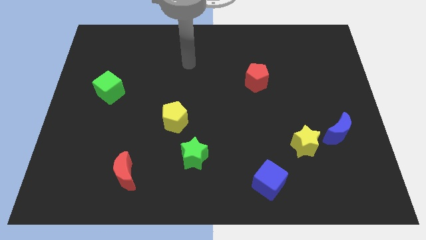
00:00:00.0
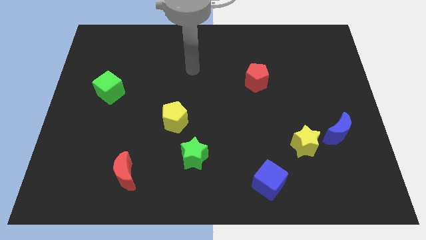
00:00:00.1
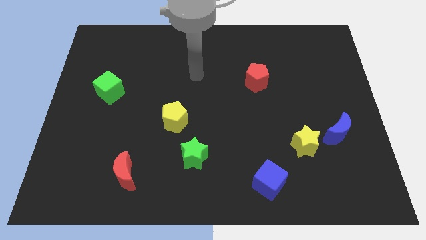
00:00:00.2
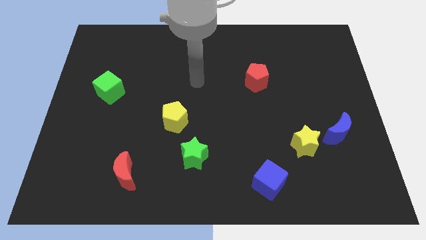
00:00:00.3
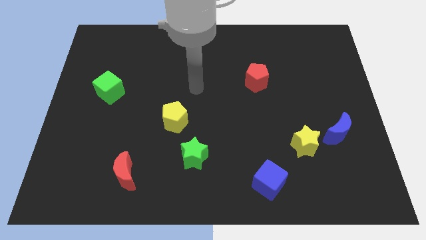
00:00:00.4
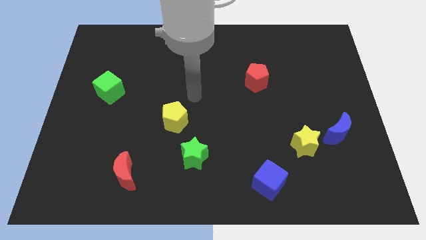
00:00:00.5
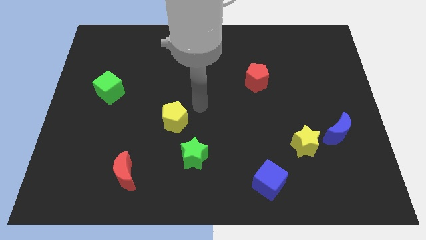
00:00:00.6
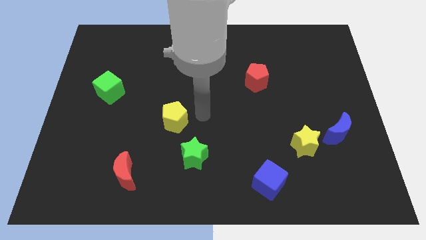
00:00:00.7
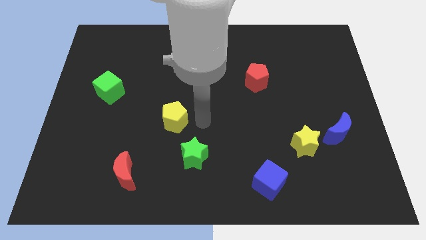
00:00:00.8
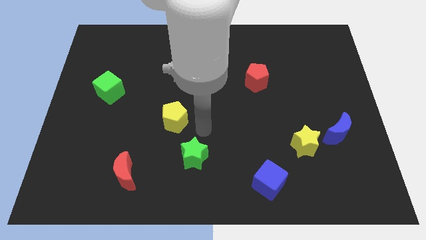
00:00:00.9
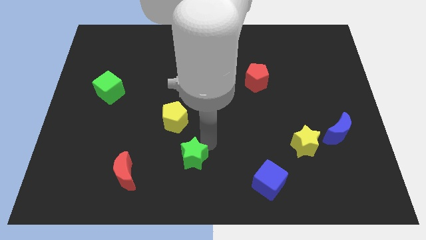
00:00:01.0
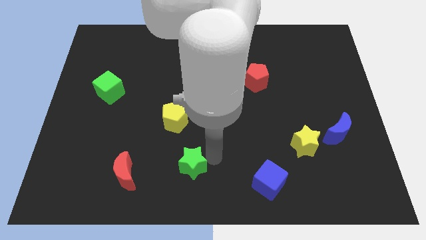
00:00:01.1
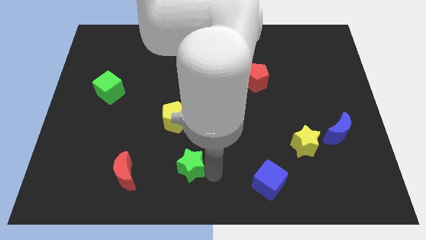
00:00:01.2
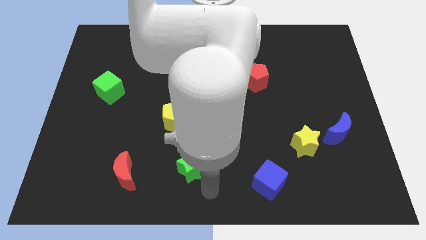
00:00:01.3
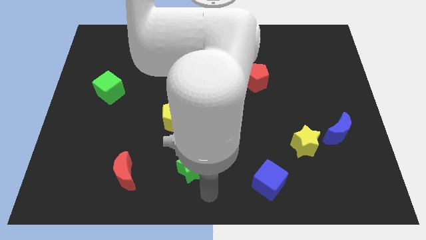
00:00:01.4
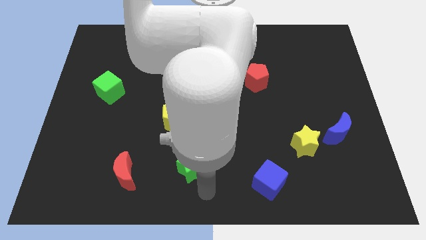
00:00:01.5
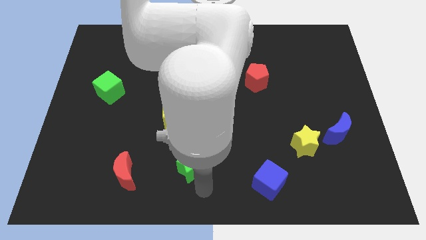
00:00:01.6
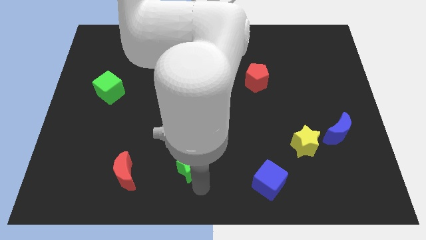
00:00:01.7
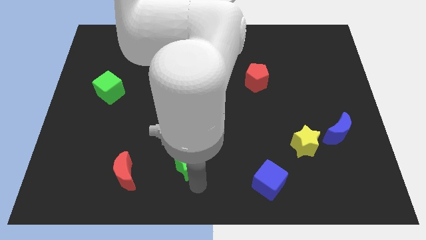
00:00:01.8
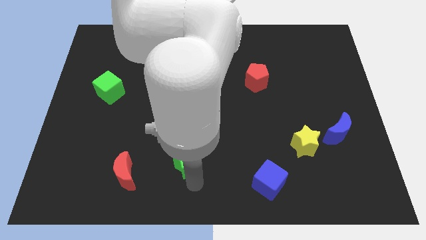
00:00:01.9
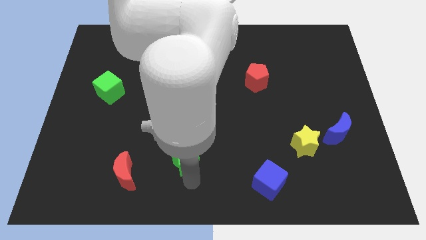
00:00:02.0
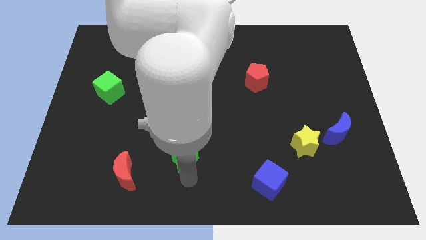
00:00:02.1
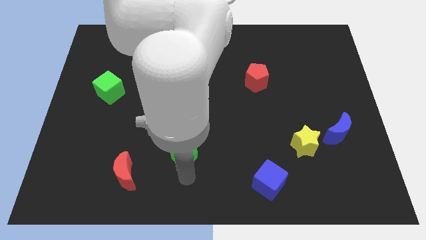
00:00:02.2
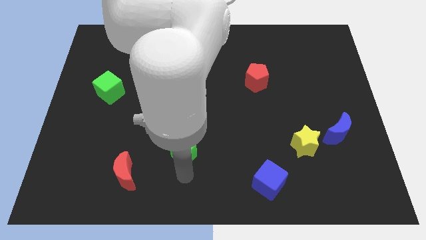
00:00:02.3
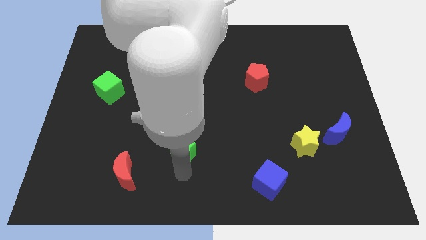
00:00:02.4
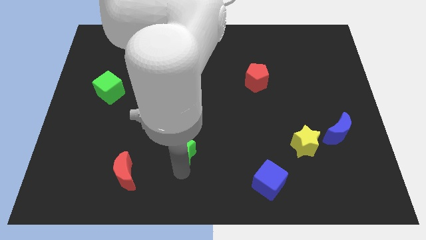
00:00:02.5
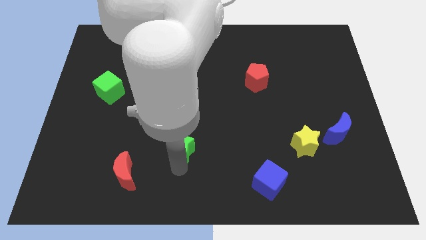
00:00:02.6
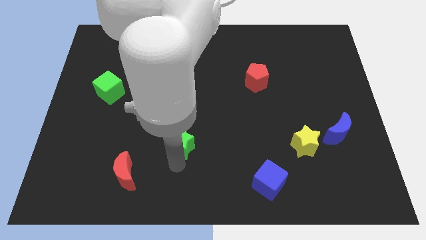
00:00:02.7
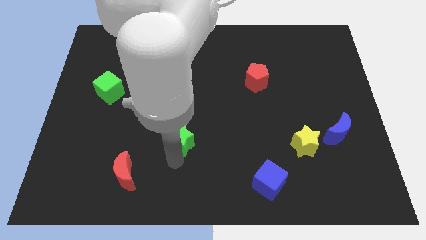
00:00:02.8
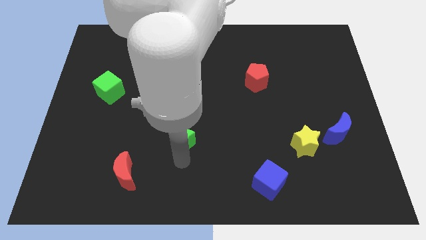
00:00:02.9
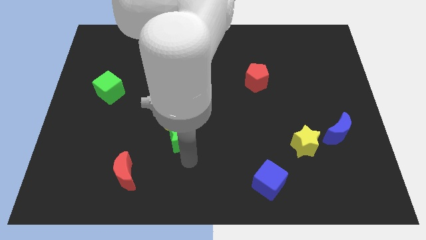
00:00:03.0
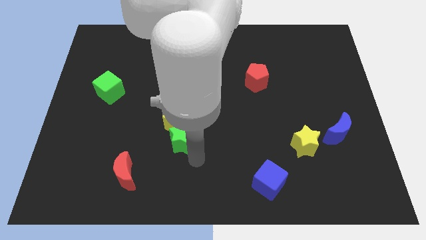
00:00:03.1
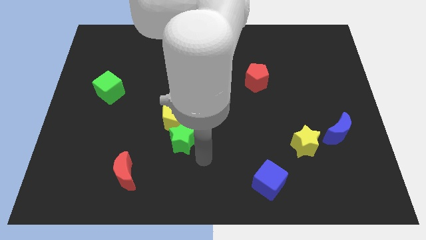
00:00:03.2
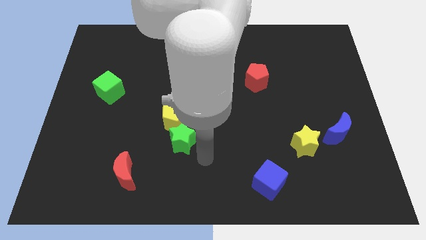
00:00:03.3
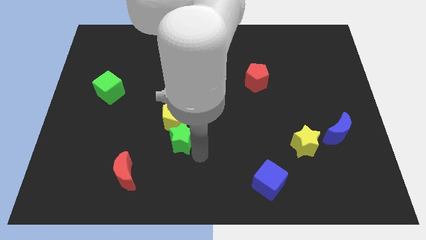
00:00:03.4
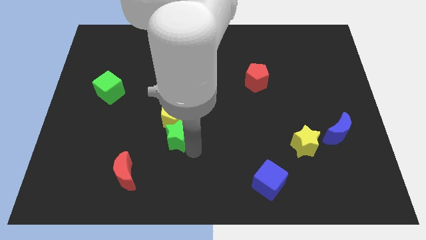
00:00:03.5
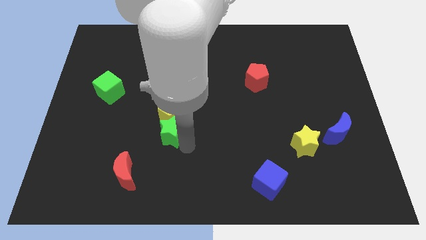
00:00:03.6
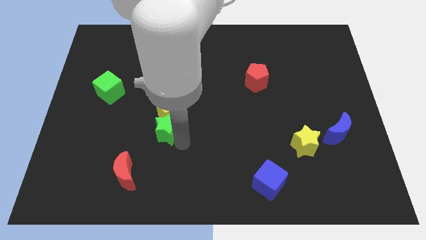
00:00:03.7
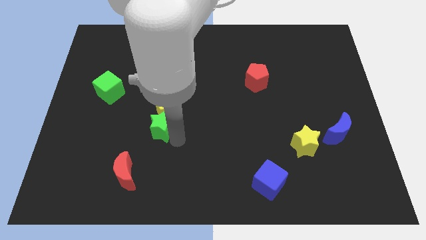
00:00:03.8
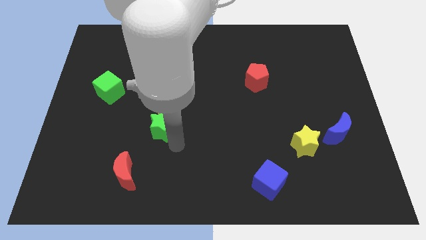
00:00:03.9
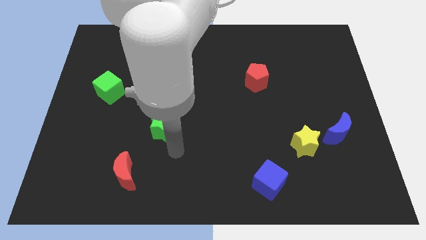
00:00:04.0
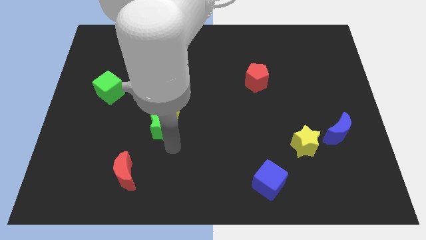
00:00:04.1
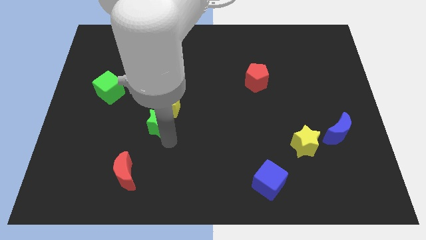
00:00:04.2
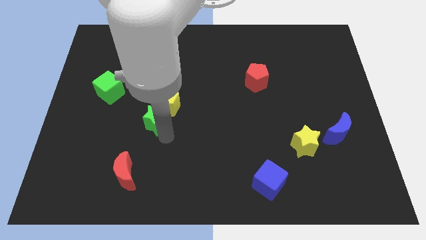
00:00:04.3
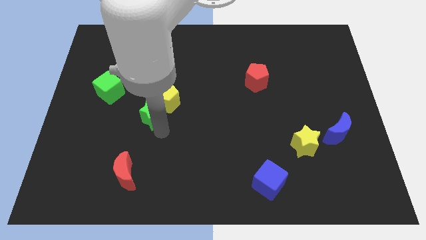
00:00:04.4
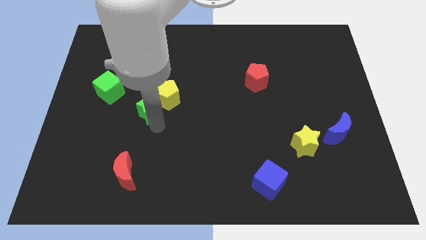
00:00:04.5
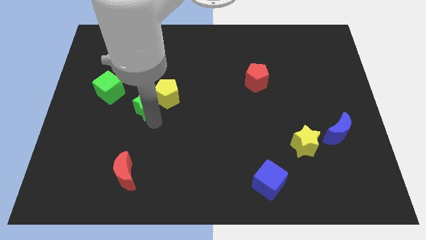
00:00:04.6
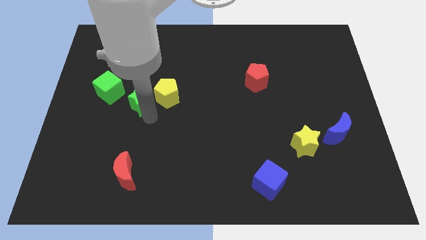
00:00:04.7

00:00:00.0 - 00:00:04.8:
slide the green star diagonally upwards and left

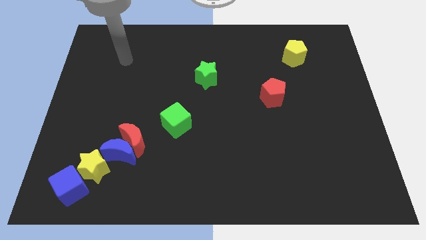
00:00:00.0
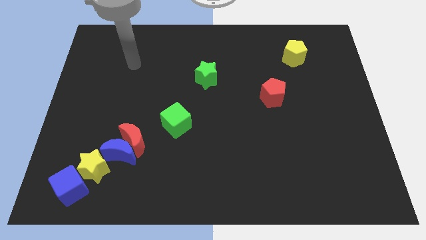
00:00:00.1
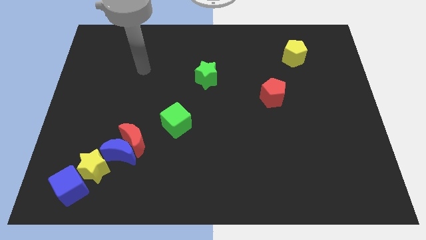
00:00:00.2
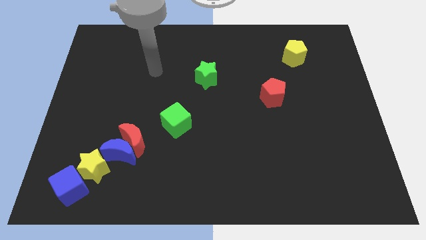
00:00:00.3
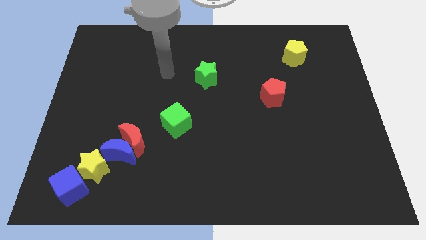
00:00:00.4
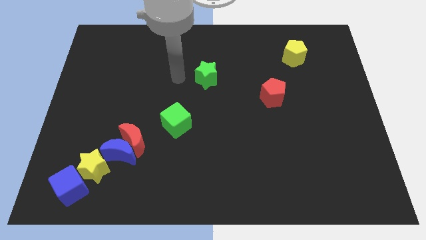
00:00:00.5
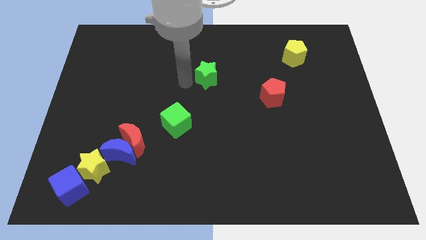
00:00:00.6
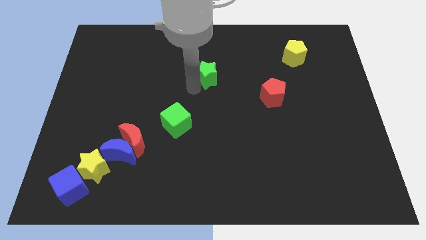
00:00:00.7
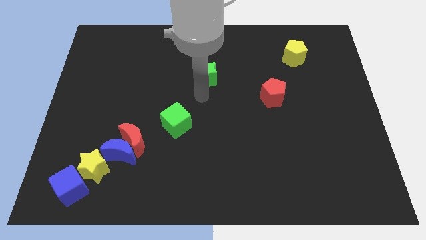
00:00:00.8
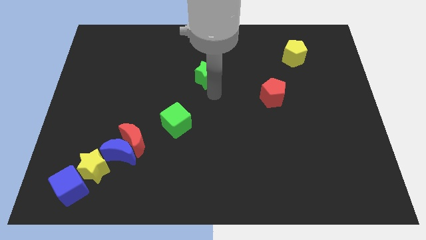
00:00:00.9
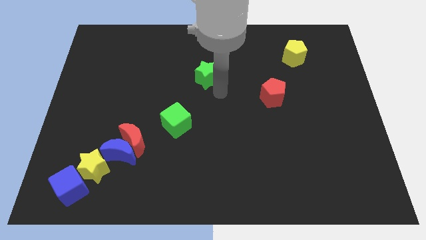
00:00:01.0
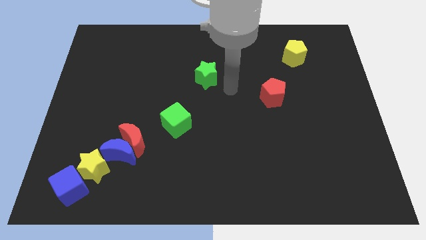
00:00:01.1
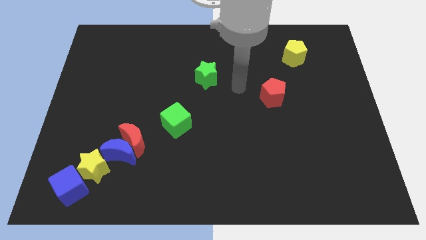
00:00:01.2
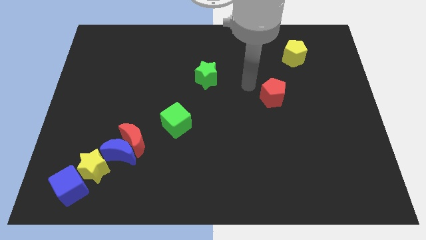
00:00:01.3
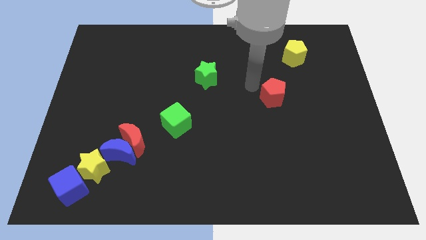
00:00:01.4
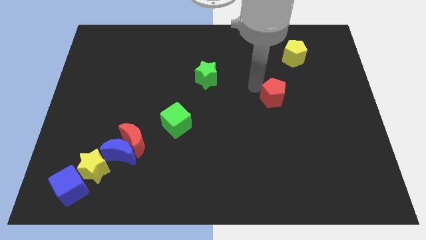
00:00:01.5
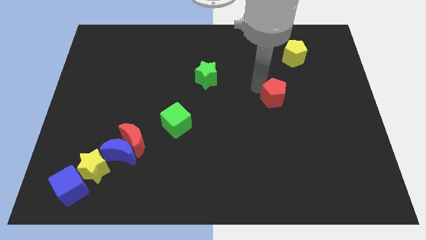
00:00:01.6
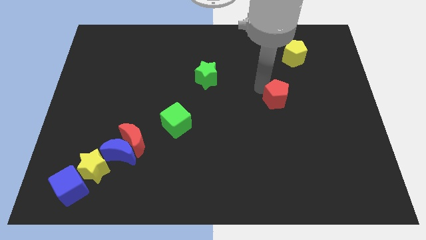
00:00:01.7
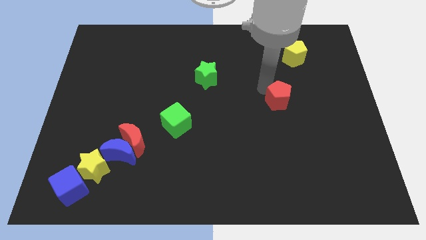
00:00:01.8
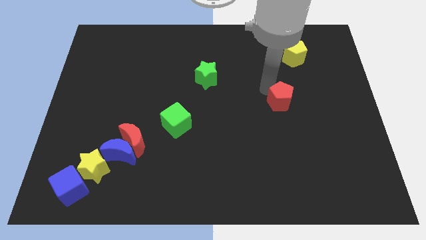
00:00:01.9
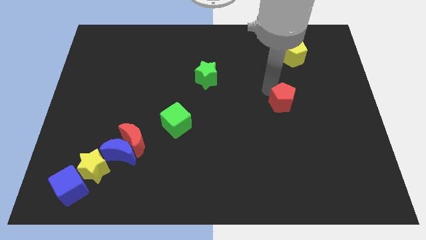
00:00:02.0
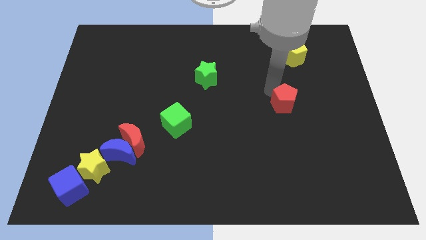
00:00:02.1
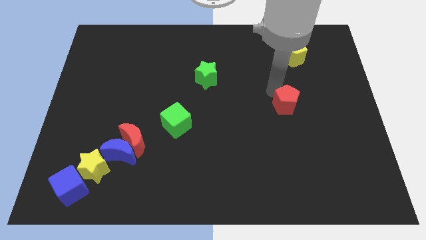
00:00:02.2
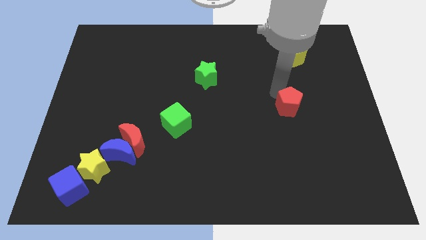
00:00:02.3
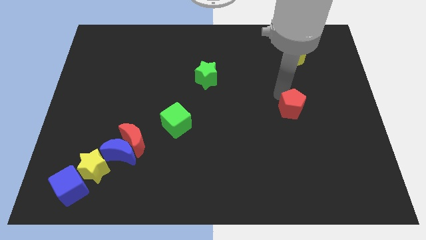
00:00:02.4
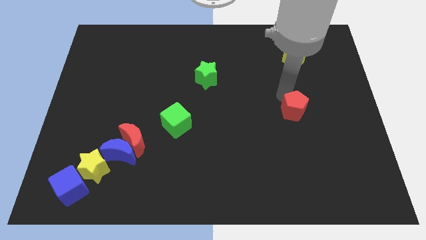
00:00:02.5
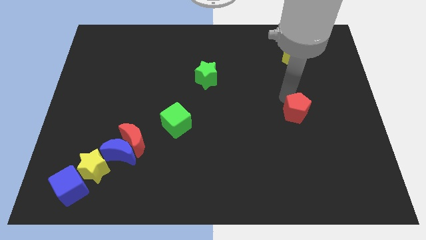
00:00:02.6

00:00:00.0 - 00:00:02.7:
push the red pentagon down and to the right a little bit

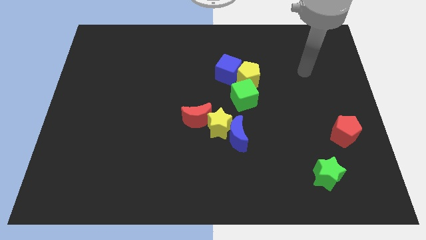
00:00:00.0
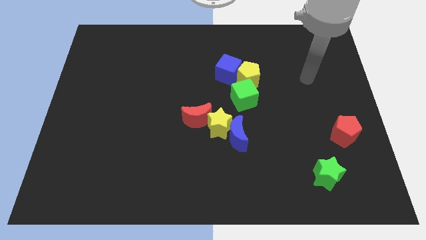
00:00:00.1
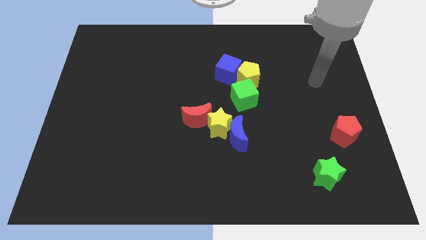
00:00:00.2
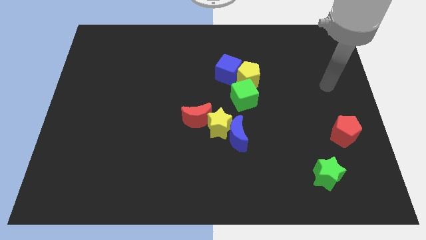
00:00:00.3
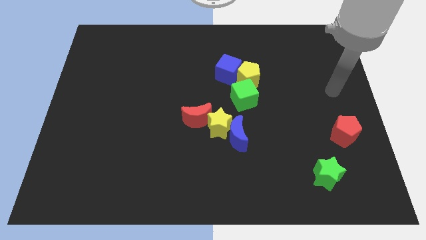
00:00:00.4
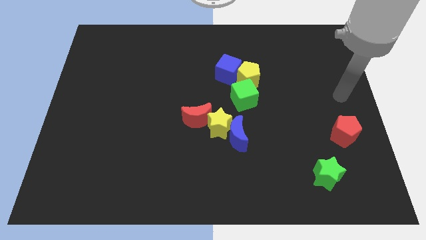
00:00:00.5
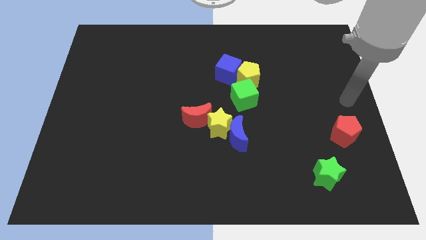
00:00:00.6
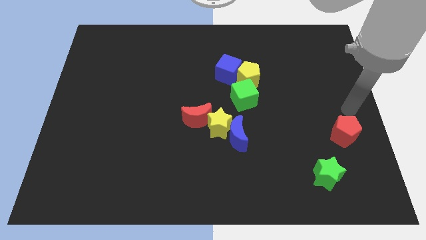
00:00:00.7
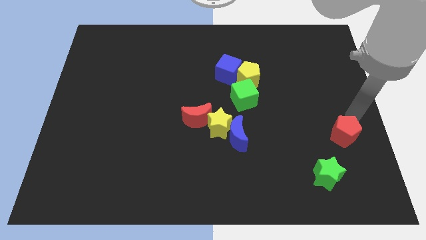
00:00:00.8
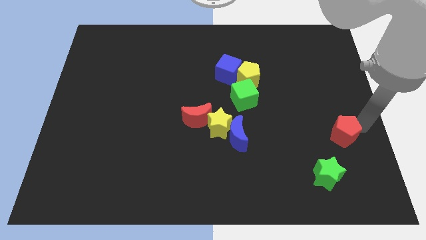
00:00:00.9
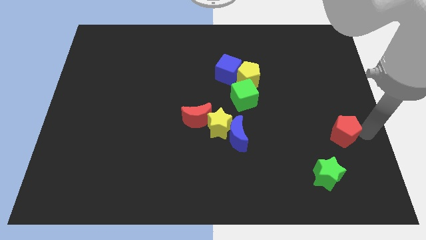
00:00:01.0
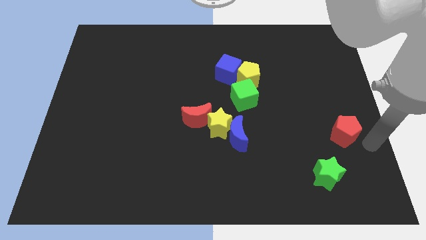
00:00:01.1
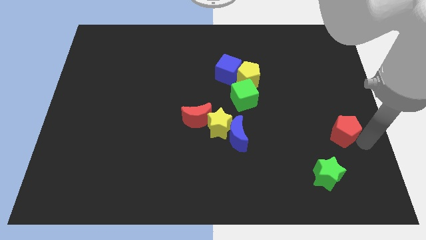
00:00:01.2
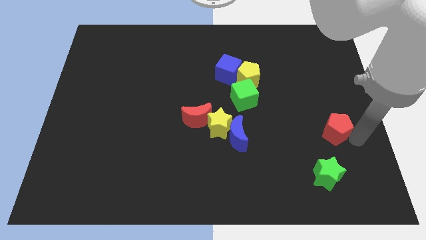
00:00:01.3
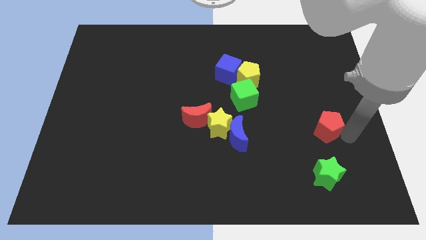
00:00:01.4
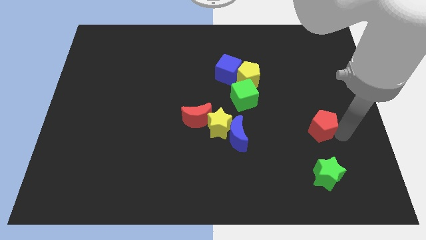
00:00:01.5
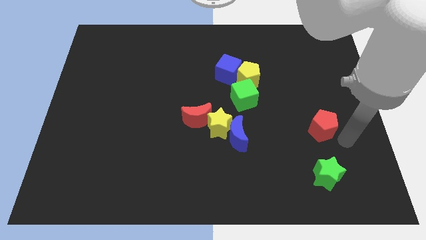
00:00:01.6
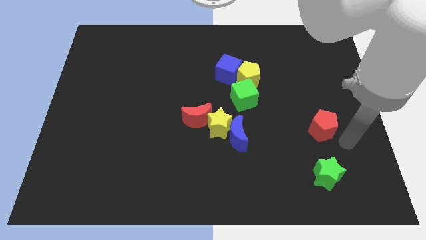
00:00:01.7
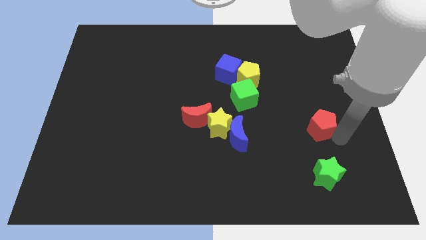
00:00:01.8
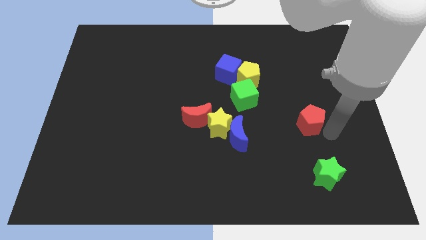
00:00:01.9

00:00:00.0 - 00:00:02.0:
slightly move the red pentagon diagonally up and left
